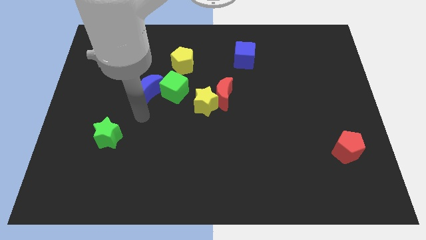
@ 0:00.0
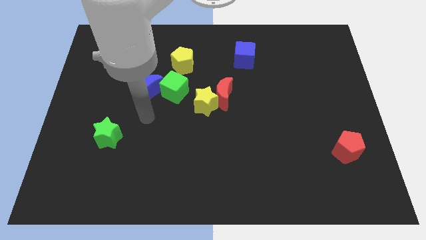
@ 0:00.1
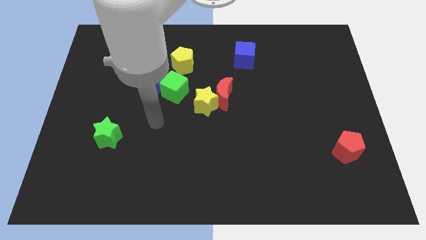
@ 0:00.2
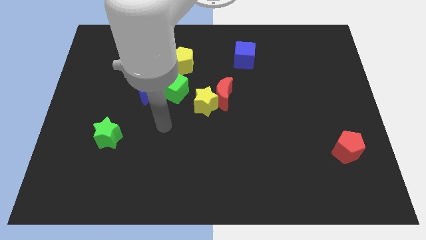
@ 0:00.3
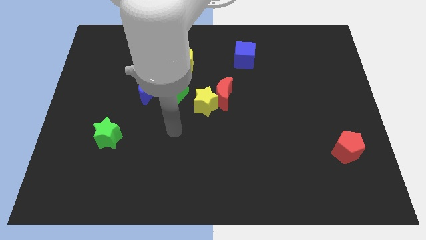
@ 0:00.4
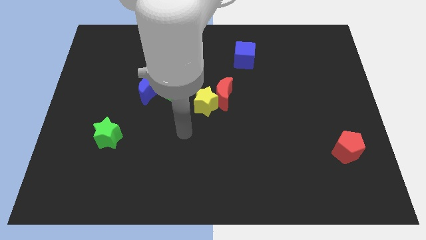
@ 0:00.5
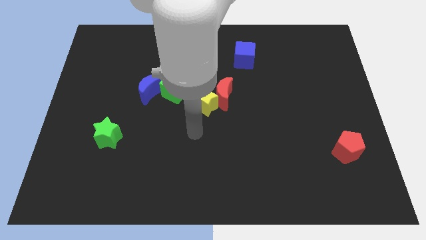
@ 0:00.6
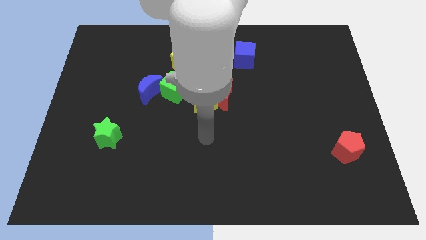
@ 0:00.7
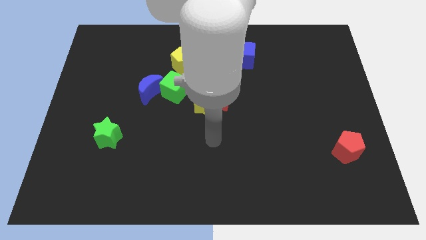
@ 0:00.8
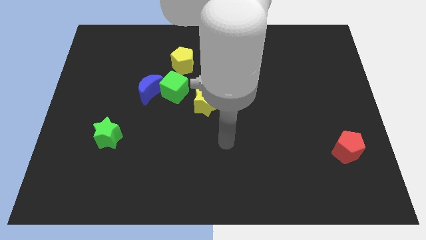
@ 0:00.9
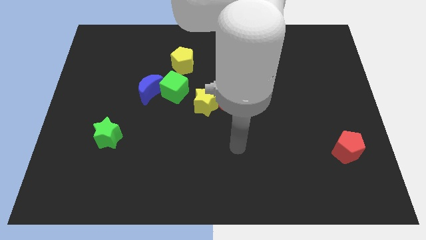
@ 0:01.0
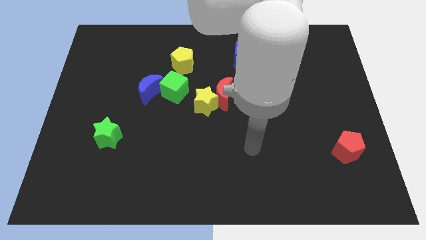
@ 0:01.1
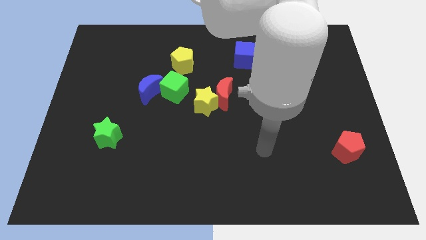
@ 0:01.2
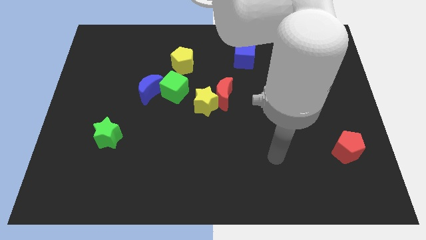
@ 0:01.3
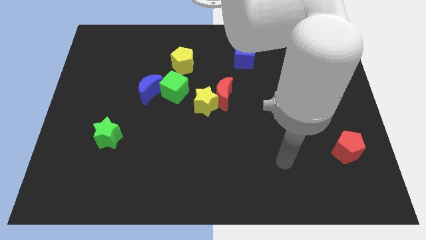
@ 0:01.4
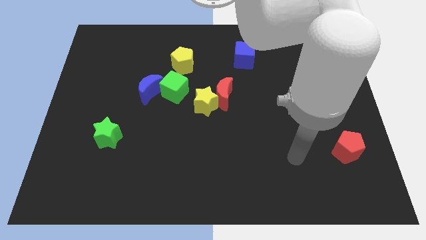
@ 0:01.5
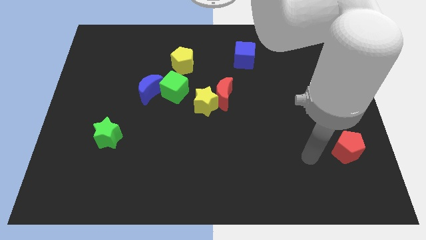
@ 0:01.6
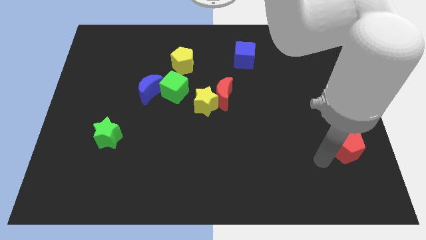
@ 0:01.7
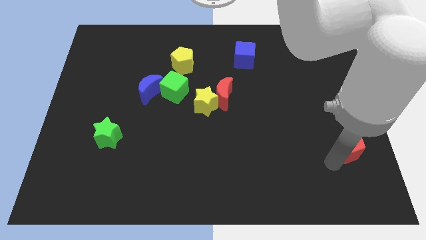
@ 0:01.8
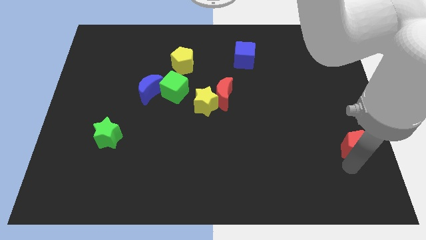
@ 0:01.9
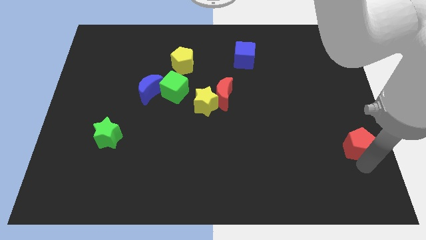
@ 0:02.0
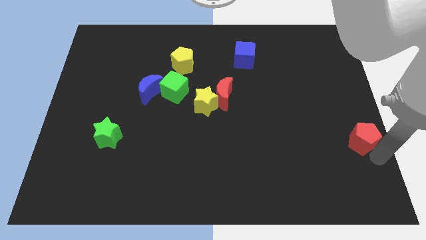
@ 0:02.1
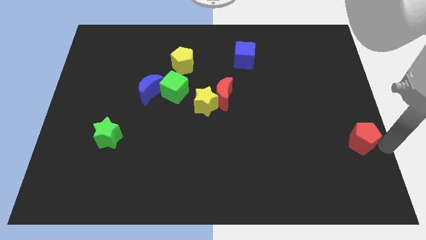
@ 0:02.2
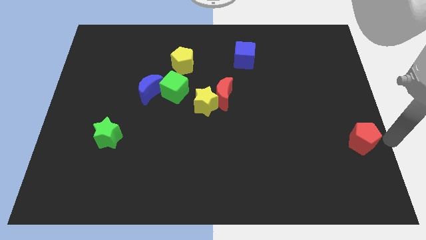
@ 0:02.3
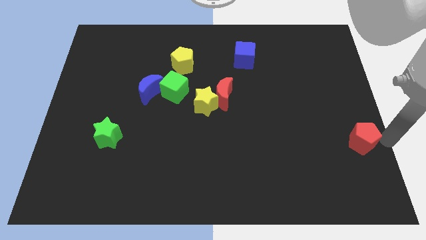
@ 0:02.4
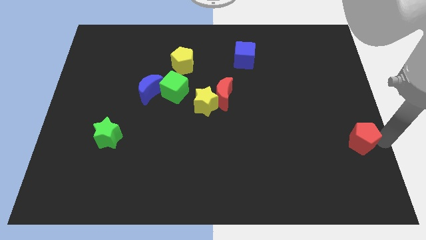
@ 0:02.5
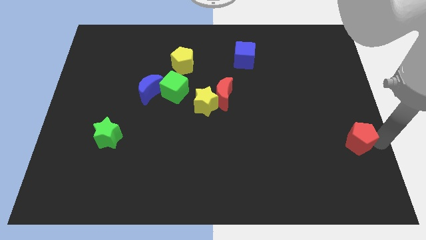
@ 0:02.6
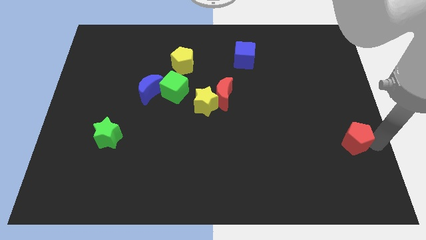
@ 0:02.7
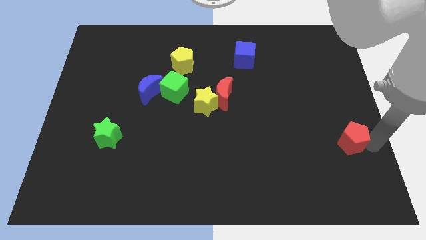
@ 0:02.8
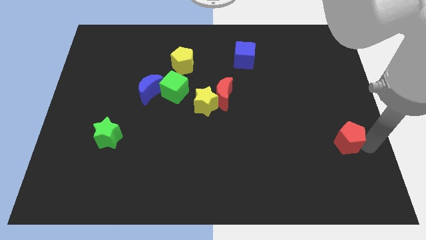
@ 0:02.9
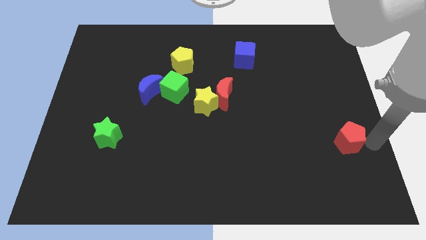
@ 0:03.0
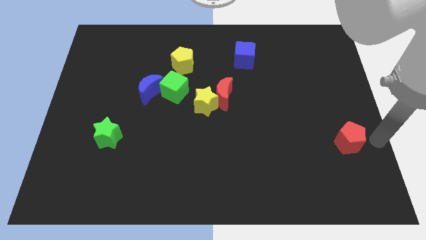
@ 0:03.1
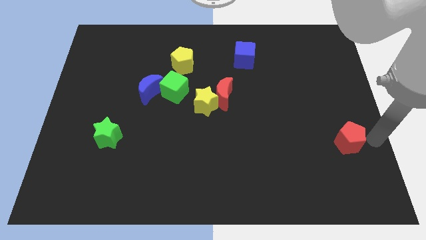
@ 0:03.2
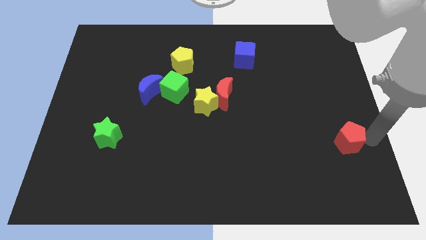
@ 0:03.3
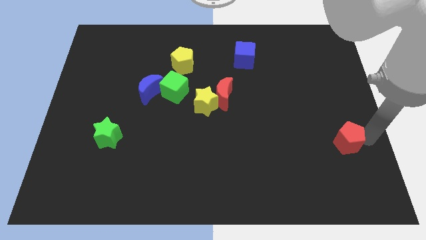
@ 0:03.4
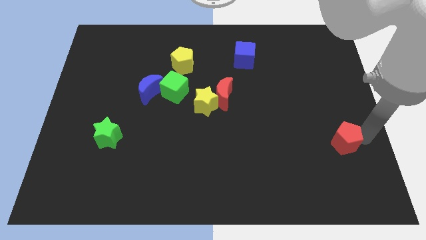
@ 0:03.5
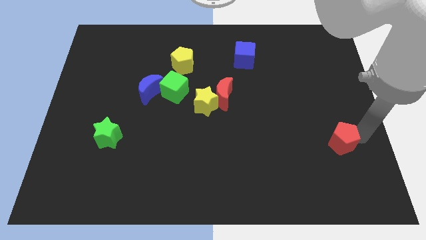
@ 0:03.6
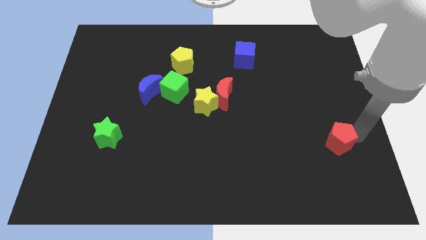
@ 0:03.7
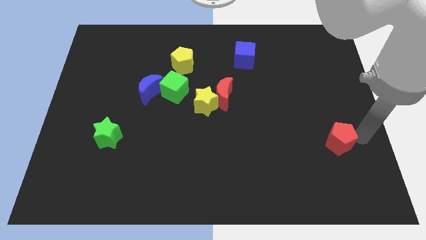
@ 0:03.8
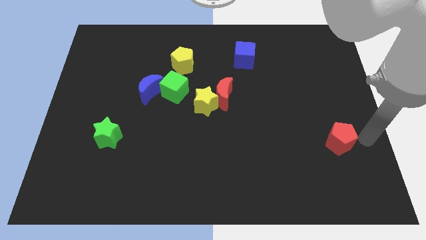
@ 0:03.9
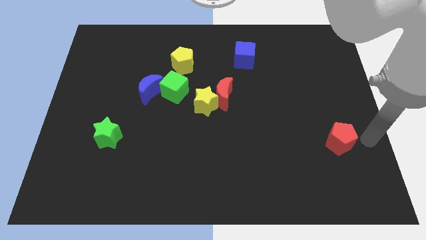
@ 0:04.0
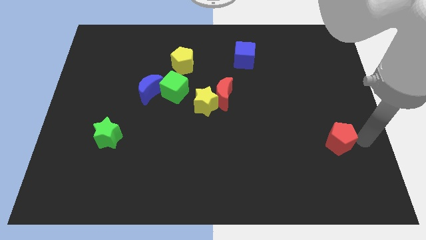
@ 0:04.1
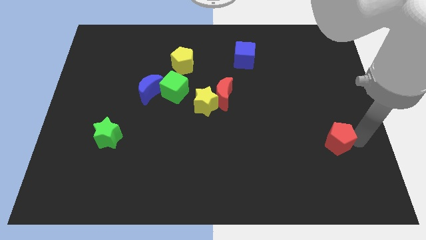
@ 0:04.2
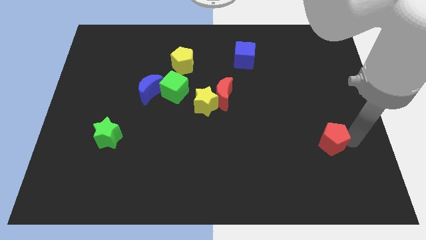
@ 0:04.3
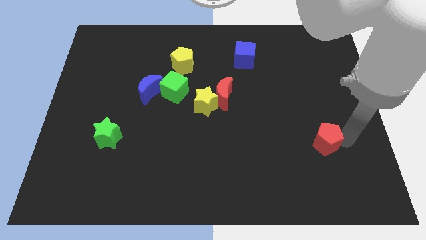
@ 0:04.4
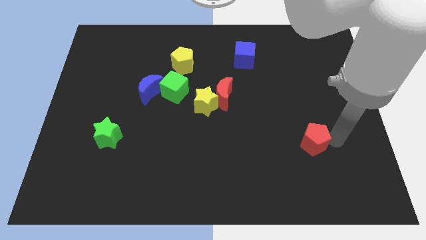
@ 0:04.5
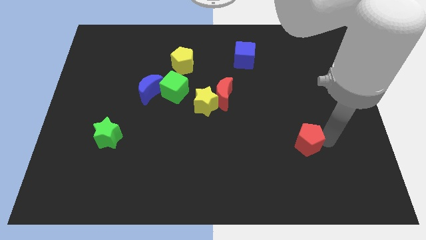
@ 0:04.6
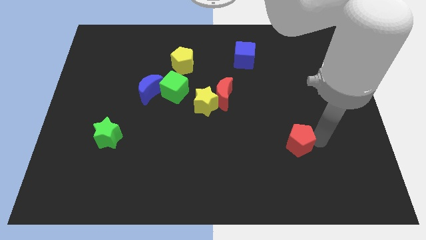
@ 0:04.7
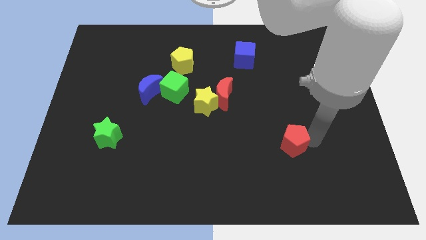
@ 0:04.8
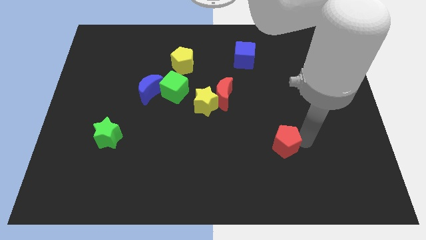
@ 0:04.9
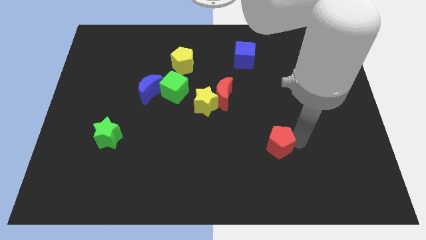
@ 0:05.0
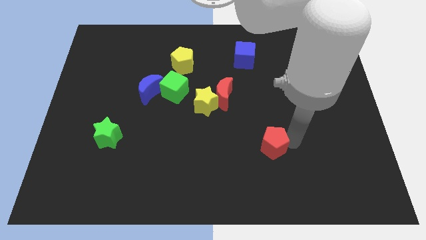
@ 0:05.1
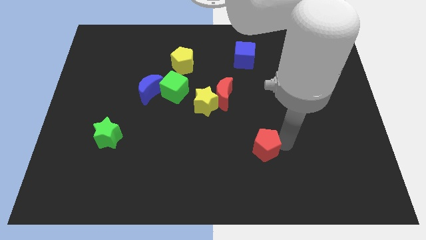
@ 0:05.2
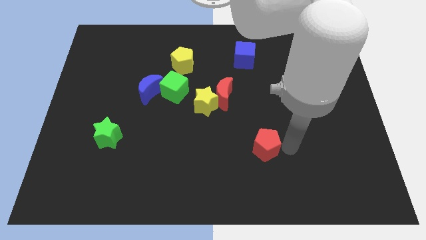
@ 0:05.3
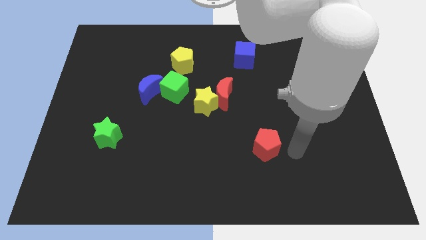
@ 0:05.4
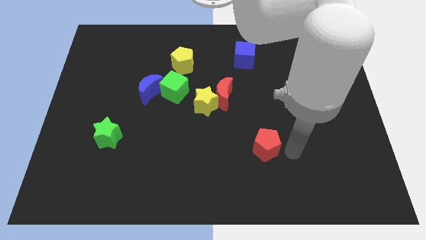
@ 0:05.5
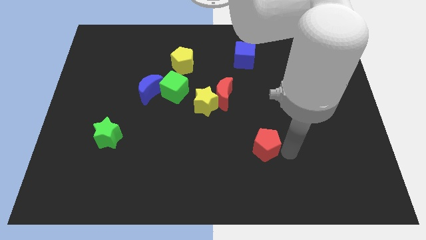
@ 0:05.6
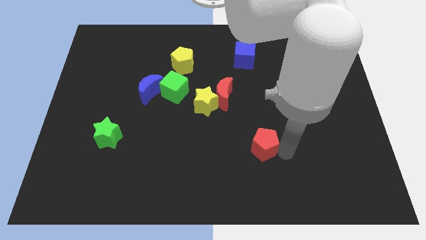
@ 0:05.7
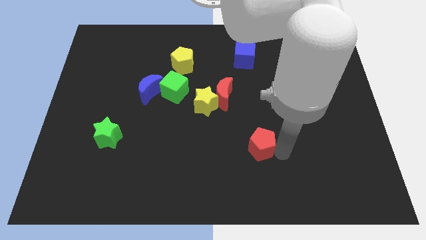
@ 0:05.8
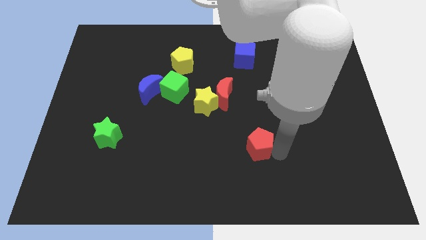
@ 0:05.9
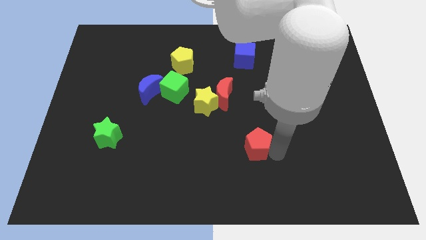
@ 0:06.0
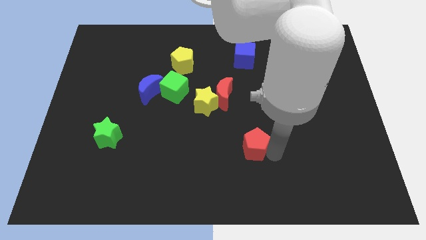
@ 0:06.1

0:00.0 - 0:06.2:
slide the red pentagon to the left

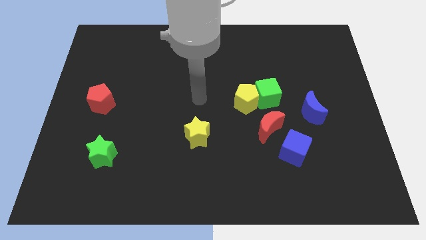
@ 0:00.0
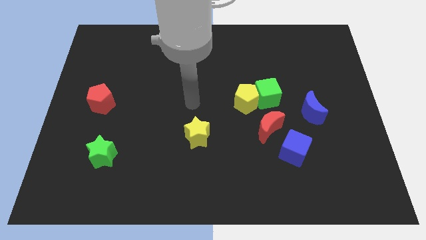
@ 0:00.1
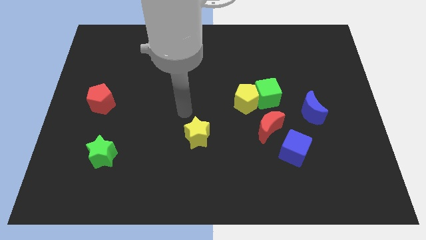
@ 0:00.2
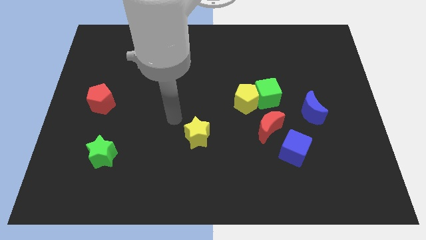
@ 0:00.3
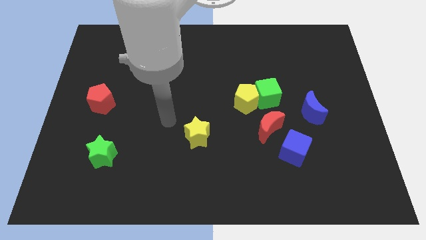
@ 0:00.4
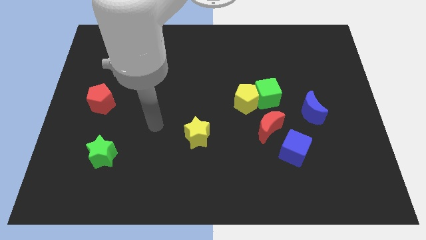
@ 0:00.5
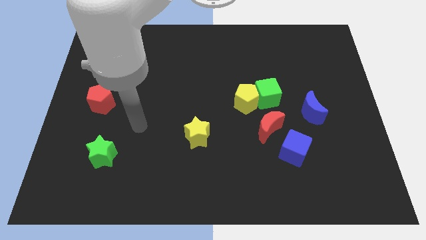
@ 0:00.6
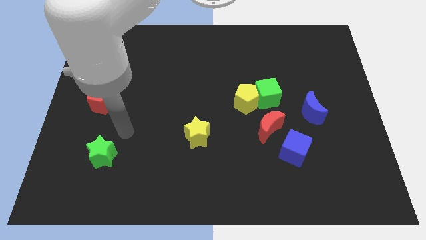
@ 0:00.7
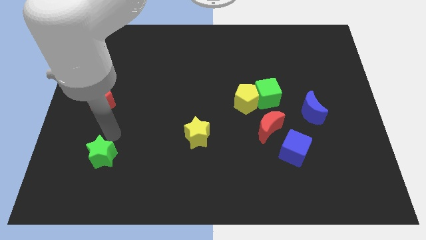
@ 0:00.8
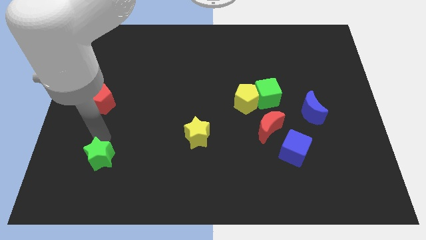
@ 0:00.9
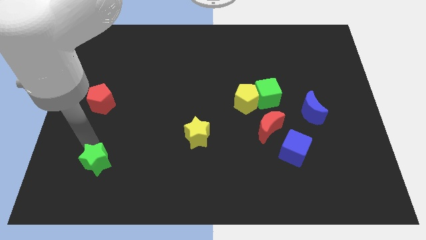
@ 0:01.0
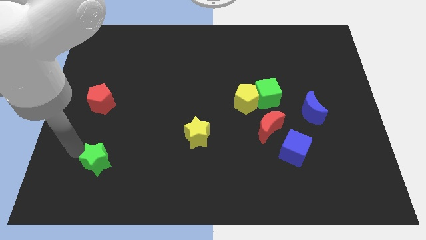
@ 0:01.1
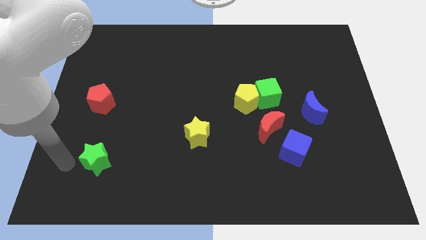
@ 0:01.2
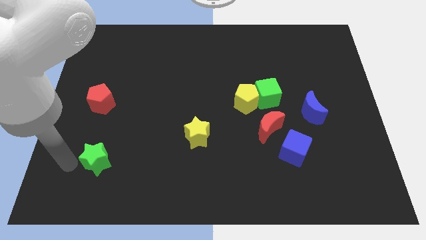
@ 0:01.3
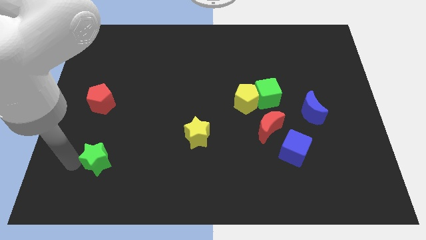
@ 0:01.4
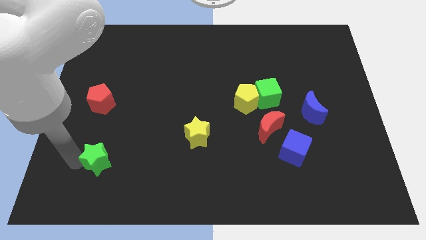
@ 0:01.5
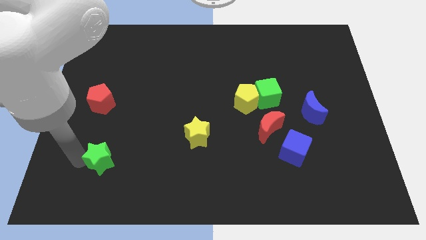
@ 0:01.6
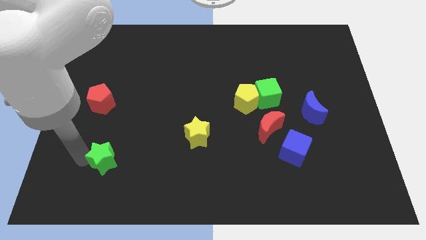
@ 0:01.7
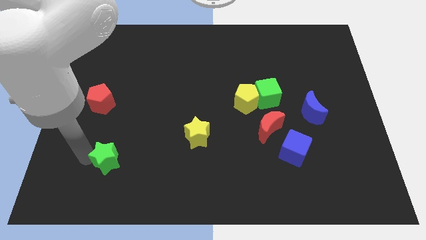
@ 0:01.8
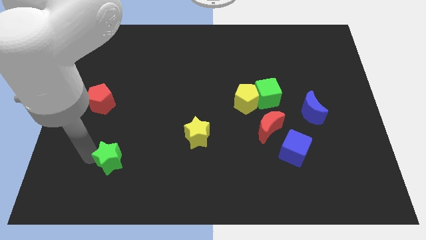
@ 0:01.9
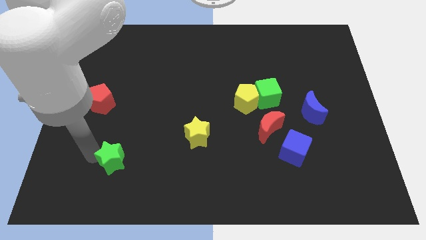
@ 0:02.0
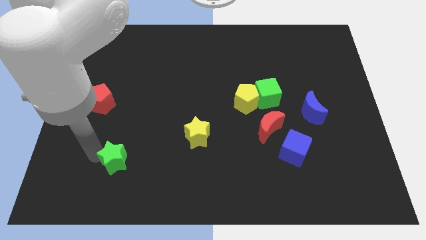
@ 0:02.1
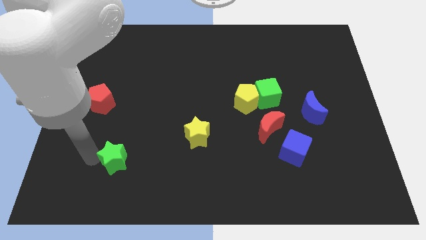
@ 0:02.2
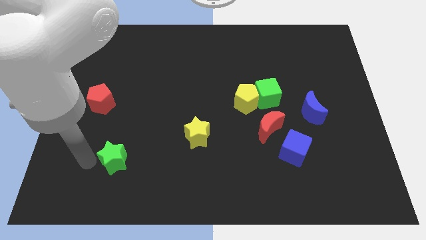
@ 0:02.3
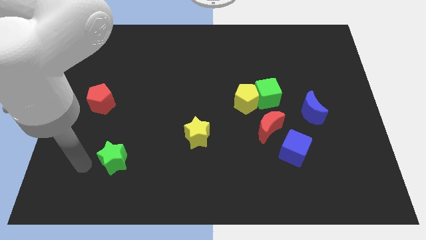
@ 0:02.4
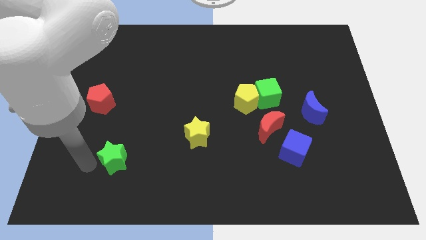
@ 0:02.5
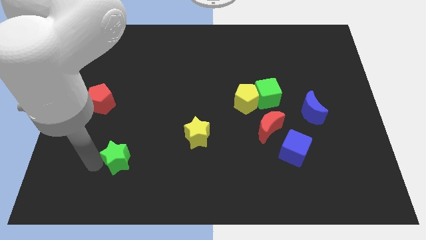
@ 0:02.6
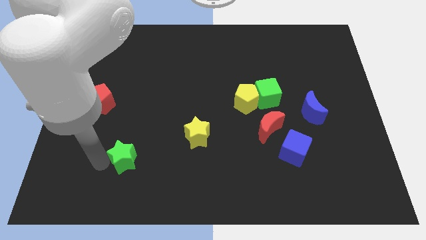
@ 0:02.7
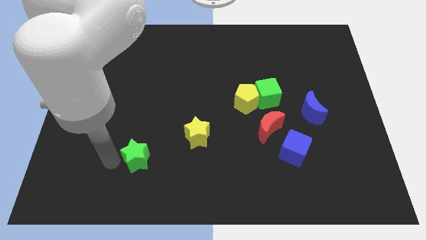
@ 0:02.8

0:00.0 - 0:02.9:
slightly push the green star to the right
